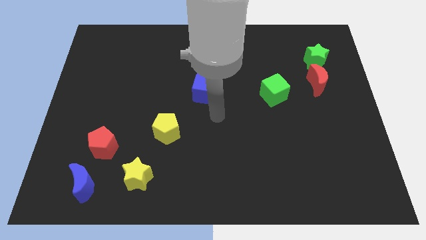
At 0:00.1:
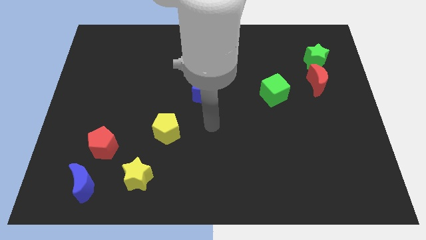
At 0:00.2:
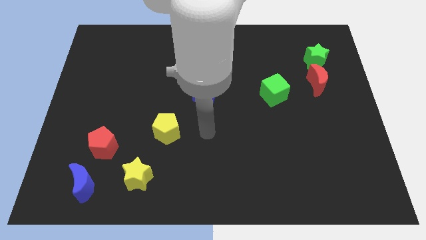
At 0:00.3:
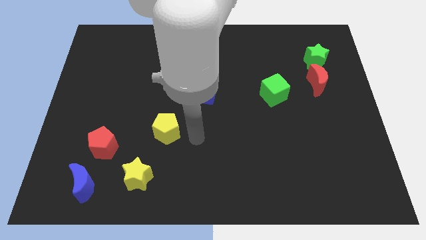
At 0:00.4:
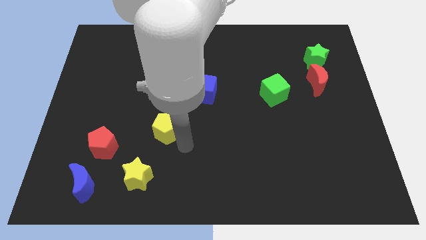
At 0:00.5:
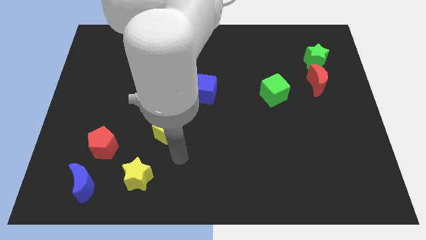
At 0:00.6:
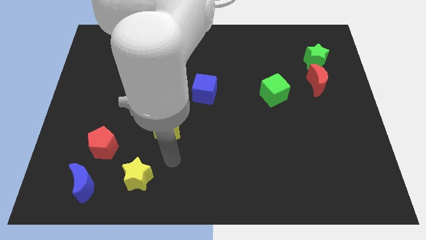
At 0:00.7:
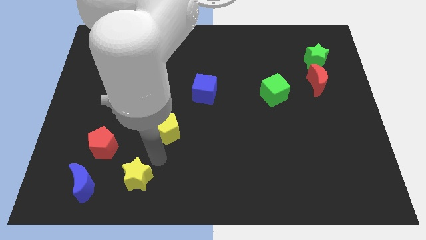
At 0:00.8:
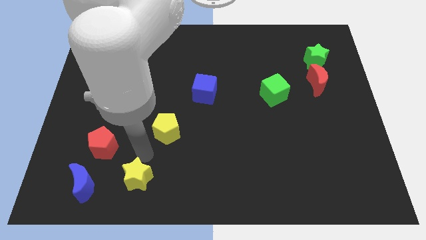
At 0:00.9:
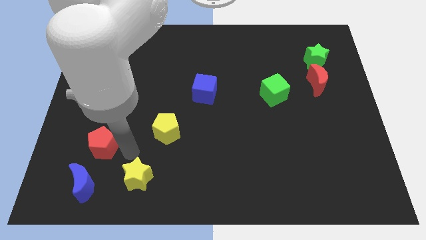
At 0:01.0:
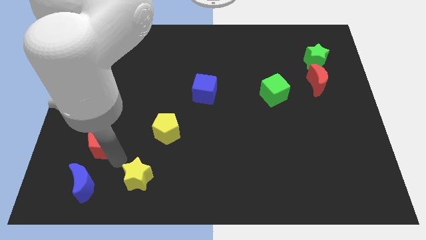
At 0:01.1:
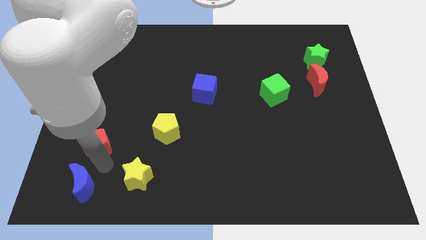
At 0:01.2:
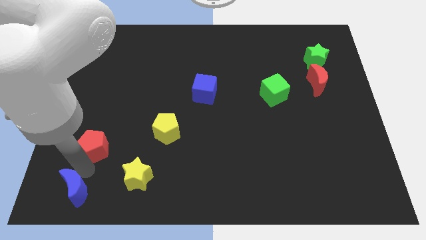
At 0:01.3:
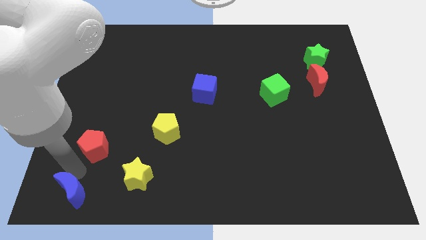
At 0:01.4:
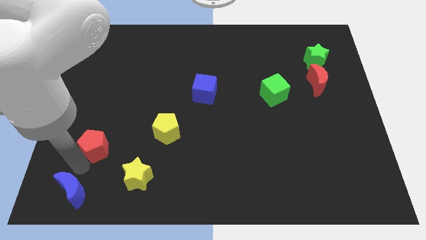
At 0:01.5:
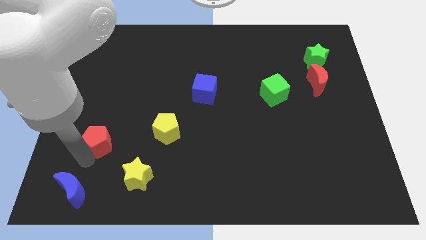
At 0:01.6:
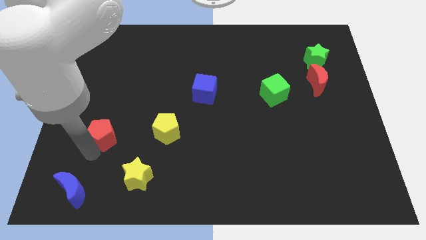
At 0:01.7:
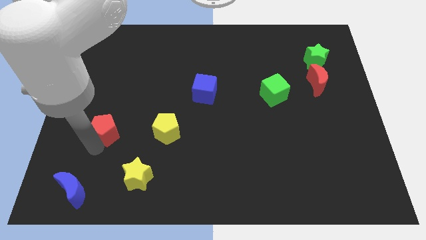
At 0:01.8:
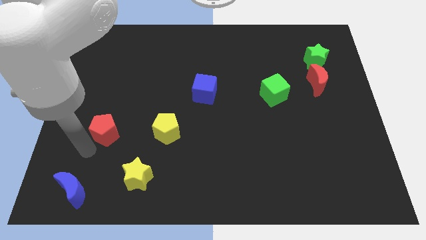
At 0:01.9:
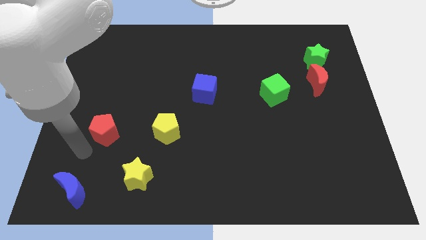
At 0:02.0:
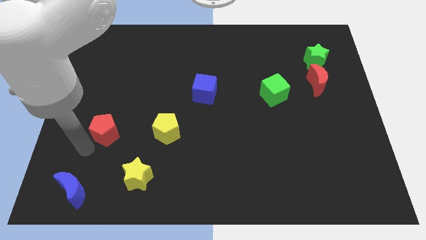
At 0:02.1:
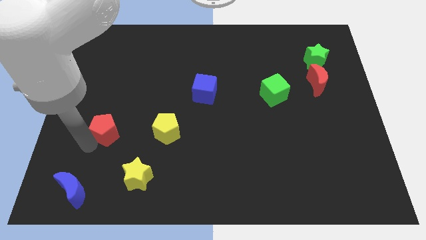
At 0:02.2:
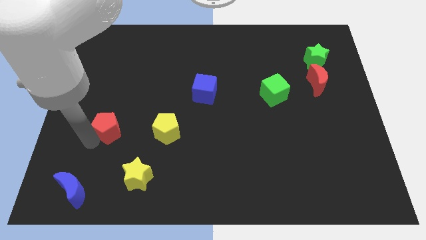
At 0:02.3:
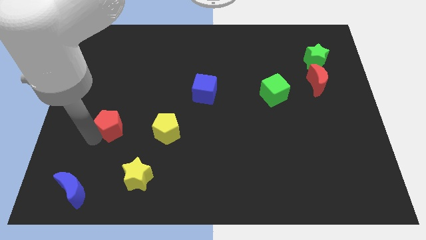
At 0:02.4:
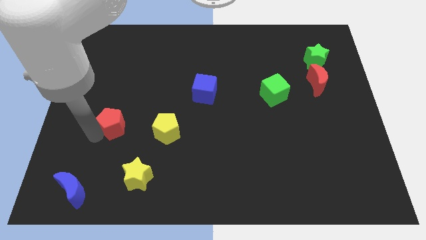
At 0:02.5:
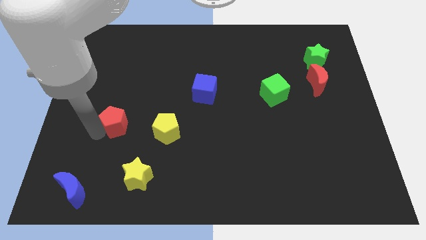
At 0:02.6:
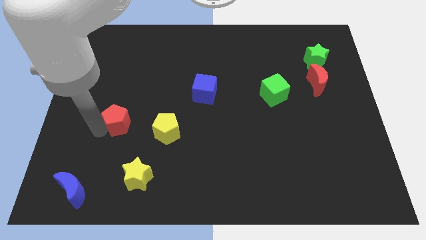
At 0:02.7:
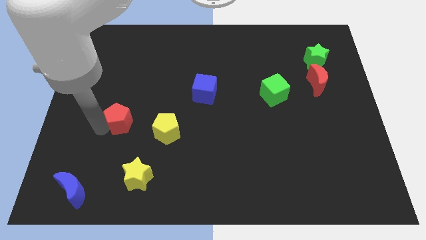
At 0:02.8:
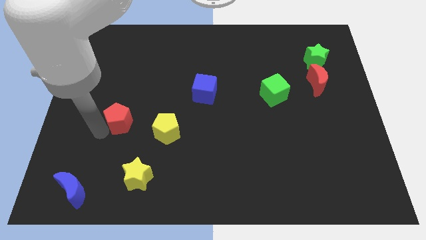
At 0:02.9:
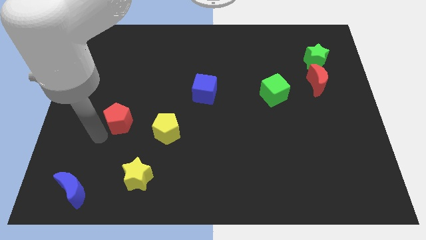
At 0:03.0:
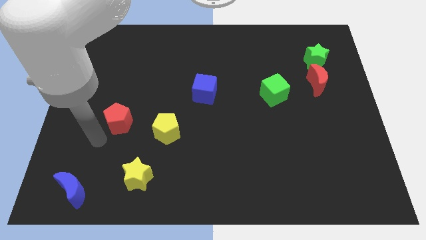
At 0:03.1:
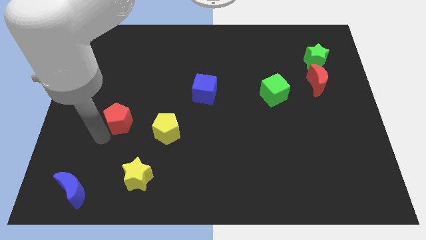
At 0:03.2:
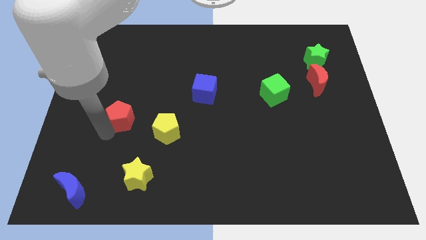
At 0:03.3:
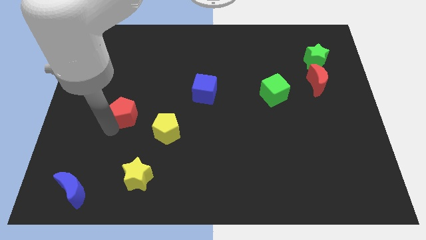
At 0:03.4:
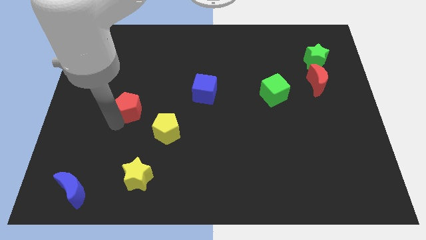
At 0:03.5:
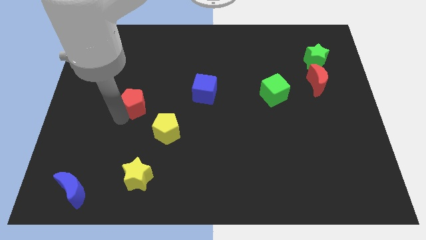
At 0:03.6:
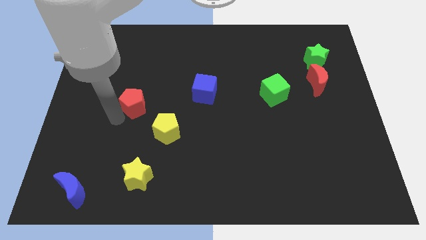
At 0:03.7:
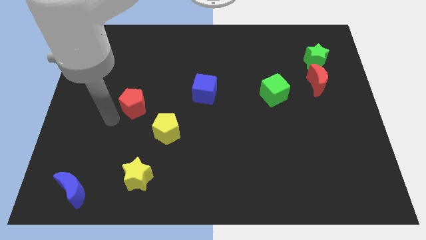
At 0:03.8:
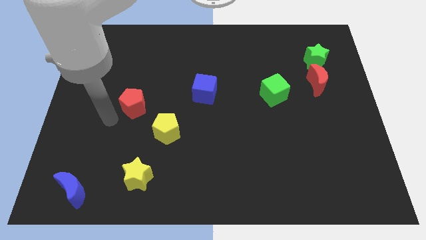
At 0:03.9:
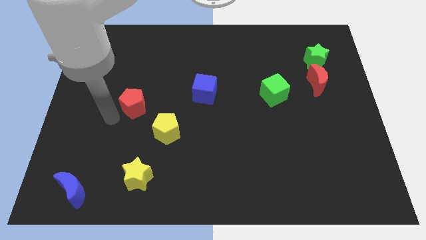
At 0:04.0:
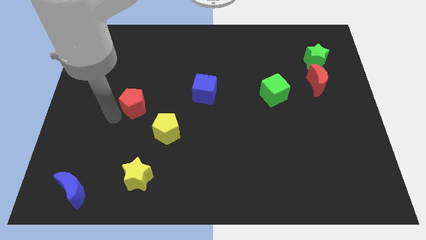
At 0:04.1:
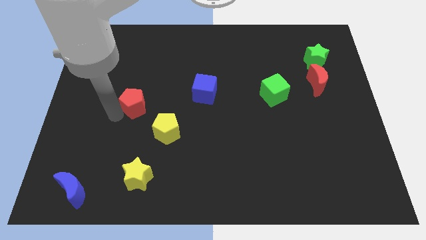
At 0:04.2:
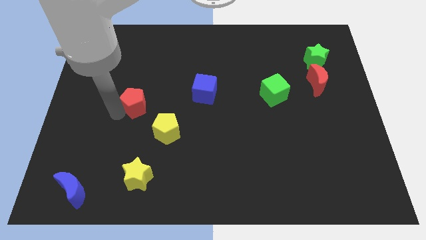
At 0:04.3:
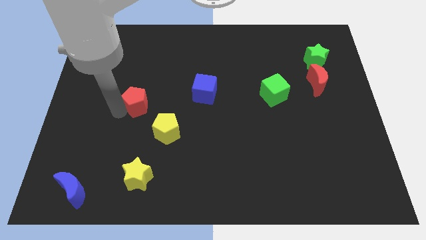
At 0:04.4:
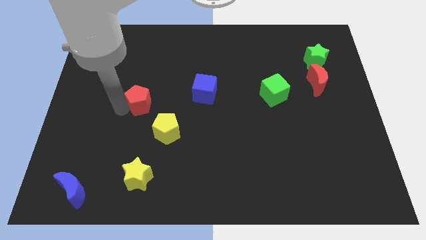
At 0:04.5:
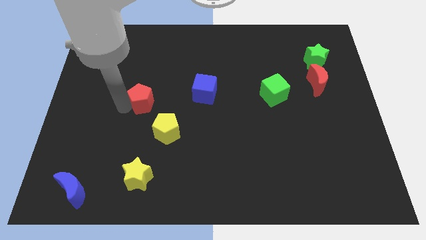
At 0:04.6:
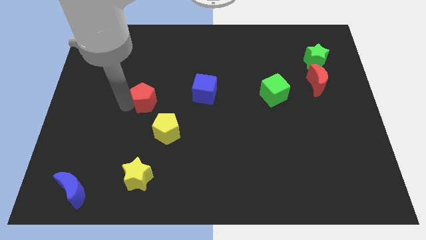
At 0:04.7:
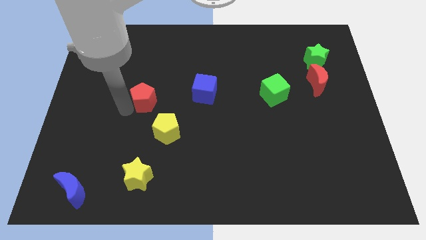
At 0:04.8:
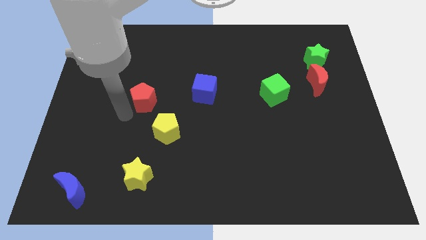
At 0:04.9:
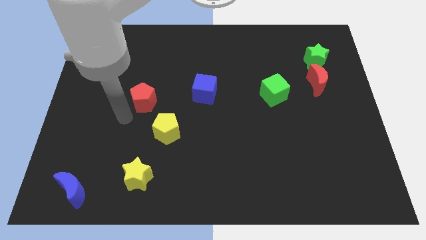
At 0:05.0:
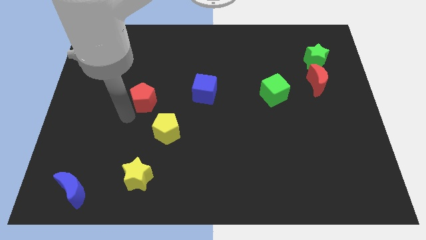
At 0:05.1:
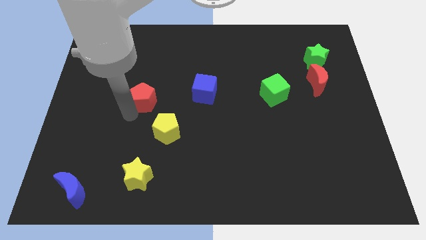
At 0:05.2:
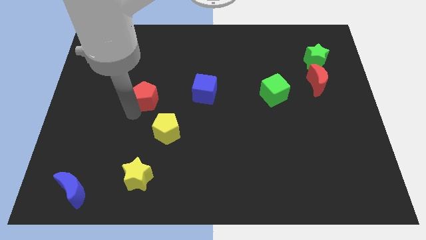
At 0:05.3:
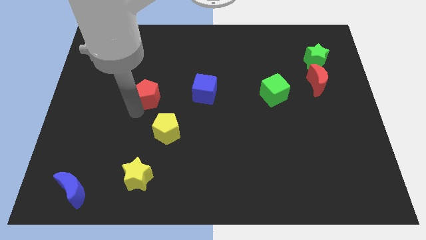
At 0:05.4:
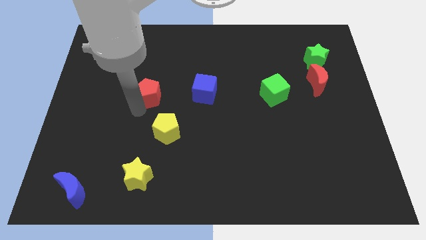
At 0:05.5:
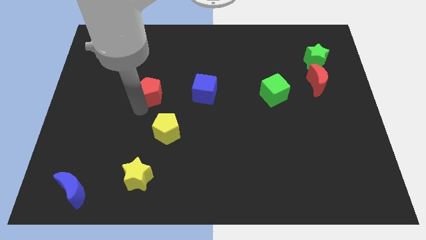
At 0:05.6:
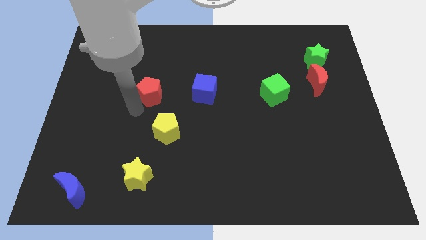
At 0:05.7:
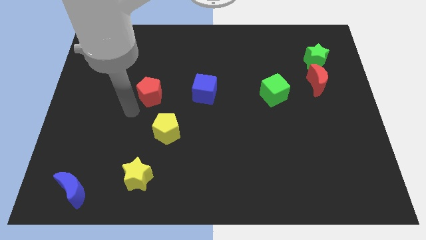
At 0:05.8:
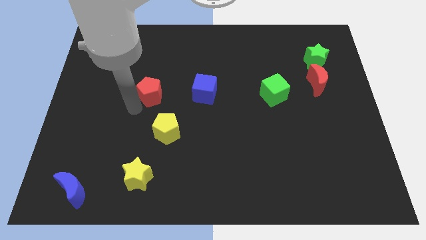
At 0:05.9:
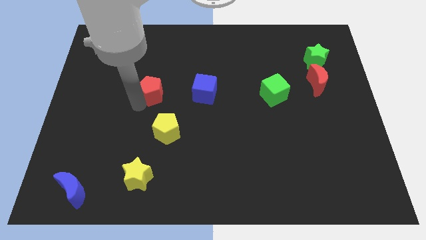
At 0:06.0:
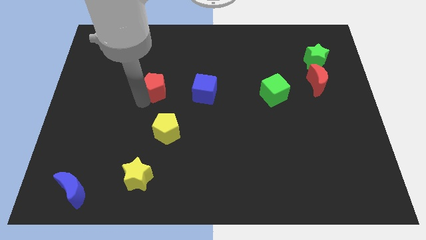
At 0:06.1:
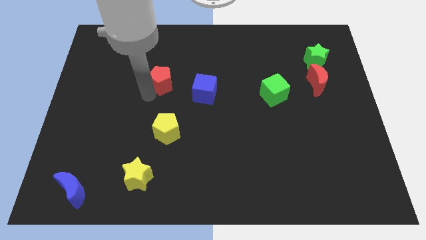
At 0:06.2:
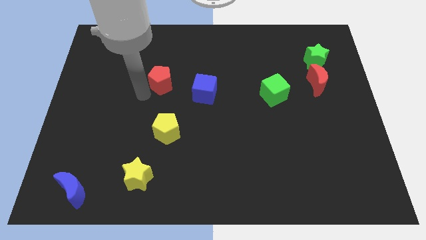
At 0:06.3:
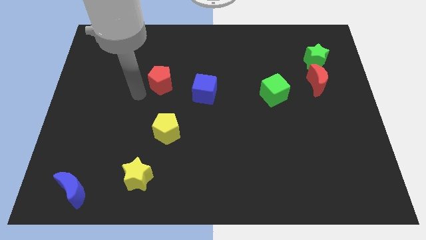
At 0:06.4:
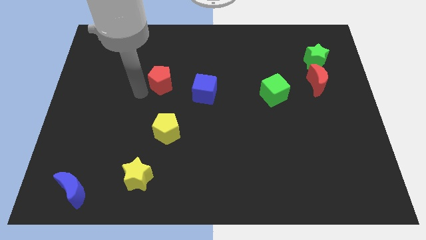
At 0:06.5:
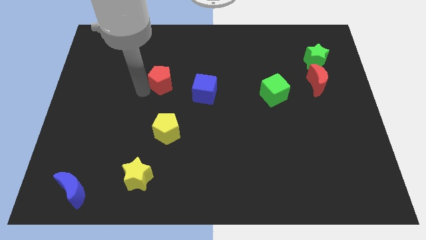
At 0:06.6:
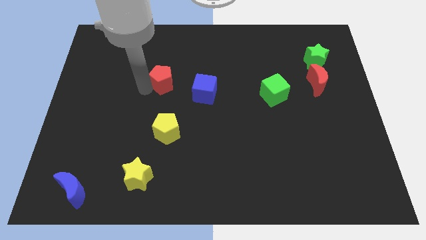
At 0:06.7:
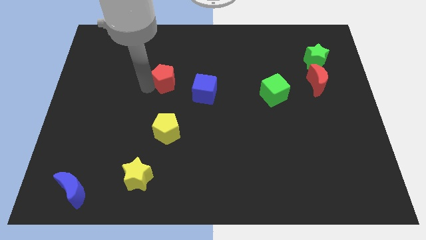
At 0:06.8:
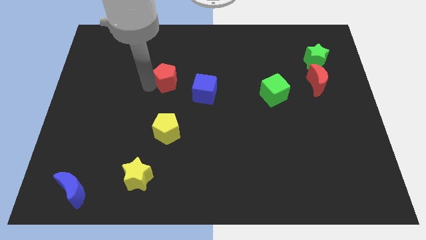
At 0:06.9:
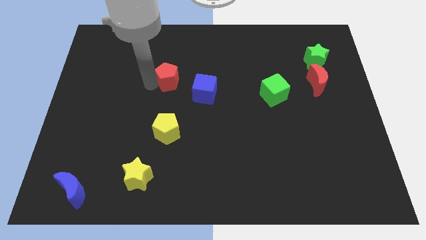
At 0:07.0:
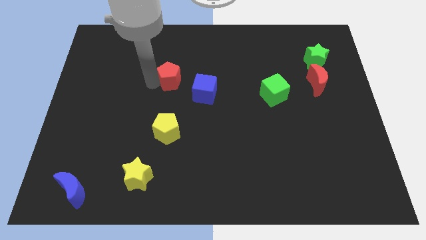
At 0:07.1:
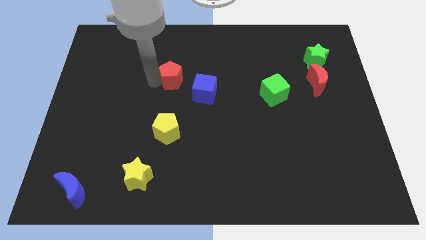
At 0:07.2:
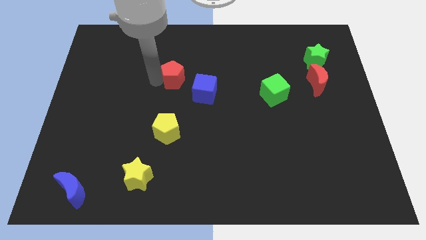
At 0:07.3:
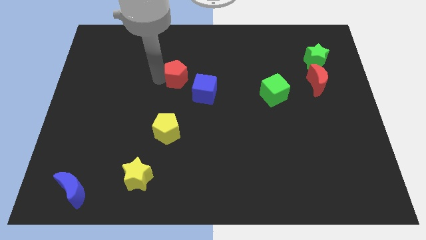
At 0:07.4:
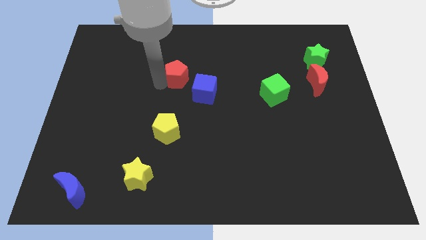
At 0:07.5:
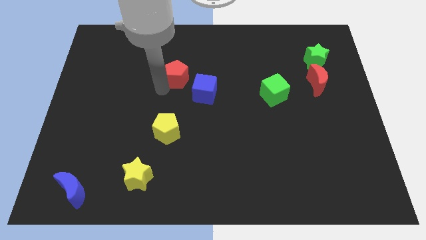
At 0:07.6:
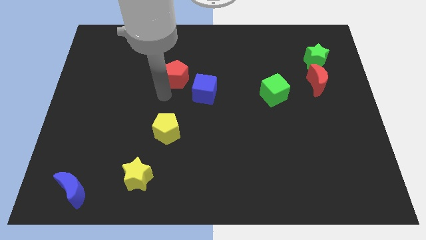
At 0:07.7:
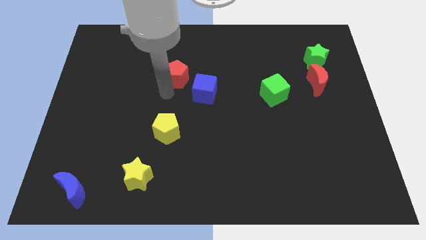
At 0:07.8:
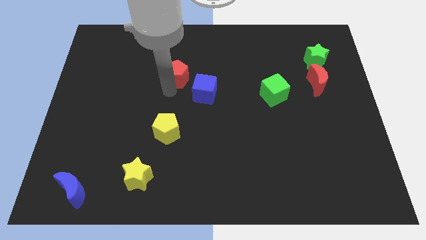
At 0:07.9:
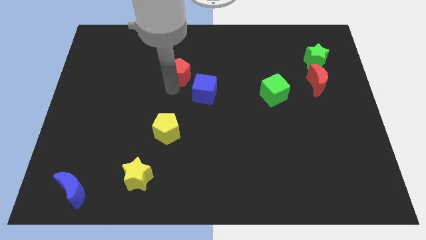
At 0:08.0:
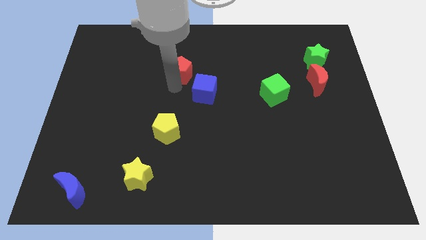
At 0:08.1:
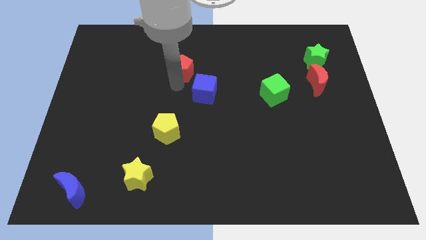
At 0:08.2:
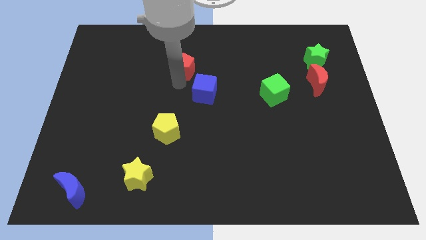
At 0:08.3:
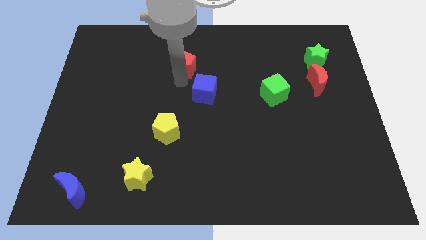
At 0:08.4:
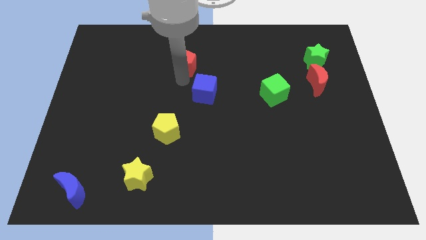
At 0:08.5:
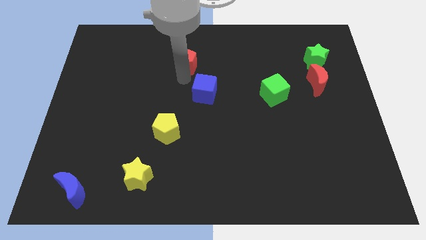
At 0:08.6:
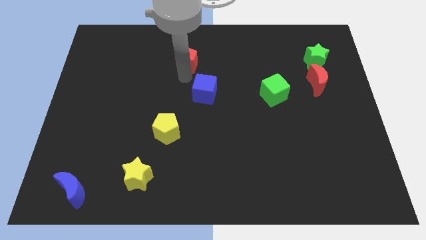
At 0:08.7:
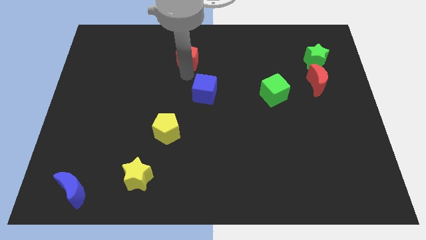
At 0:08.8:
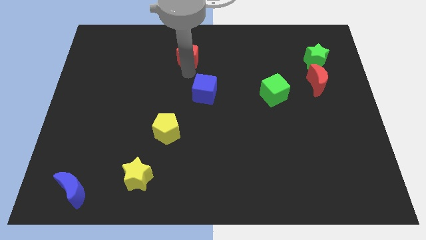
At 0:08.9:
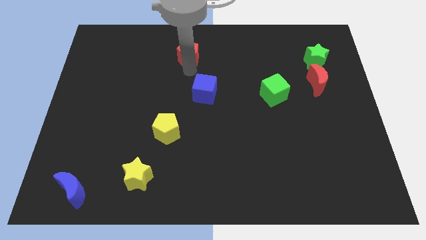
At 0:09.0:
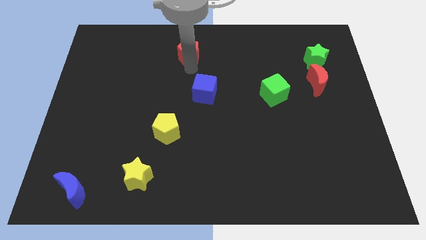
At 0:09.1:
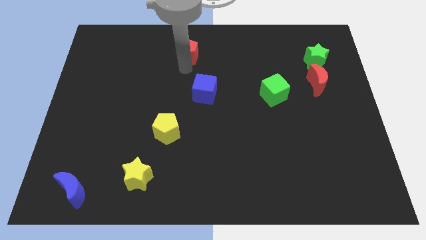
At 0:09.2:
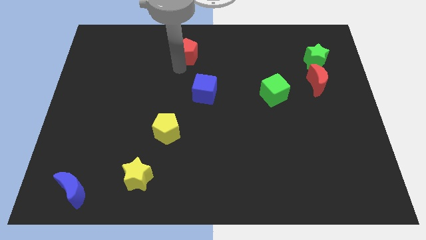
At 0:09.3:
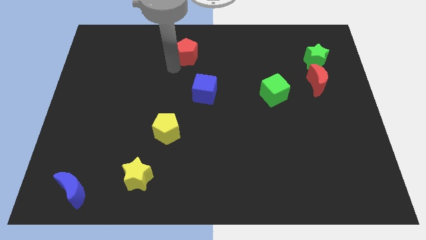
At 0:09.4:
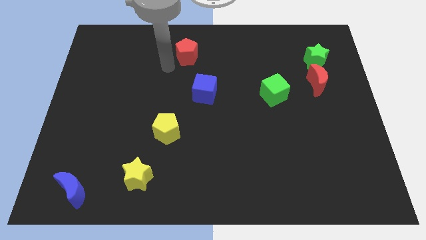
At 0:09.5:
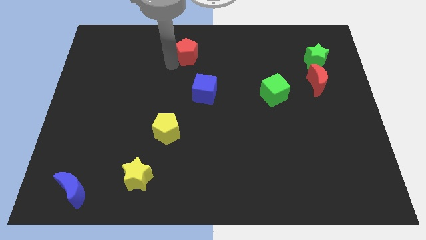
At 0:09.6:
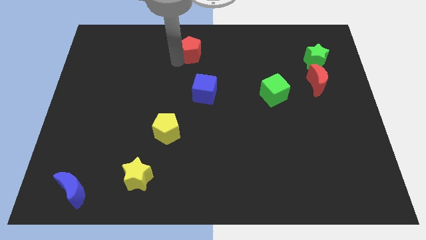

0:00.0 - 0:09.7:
move the red pentagon to the towards your base
